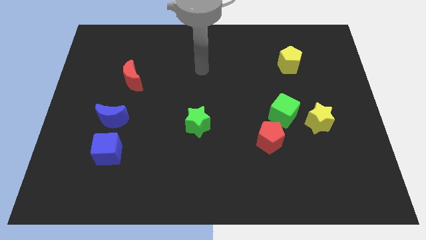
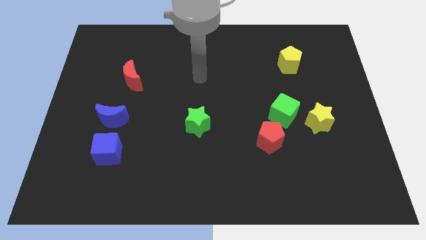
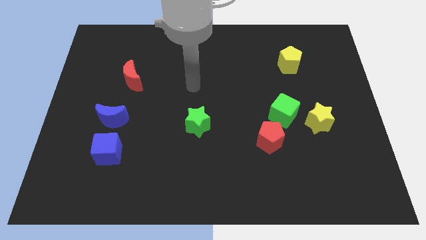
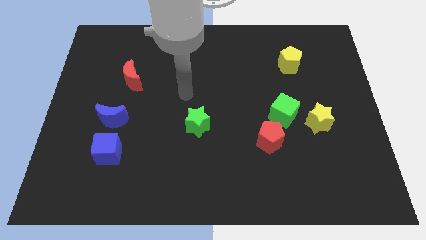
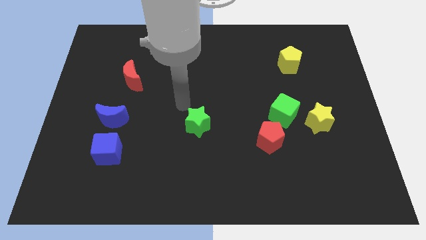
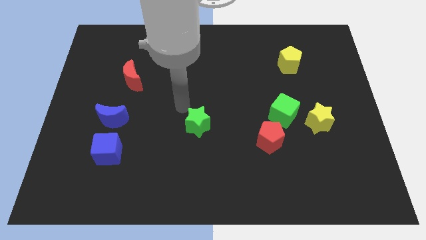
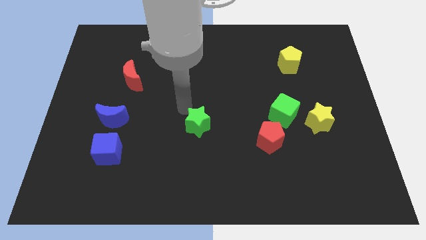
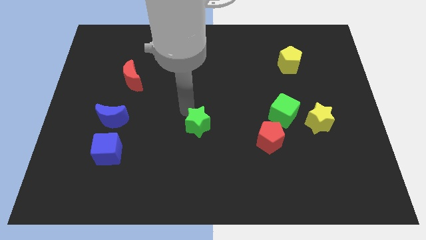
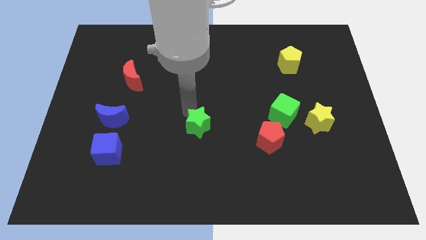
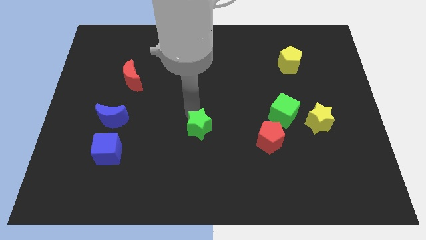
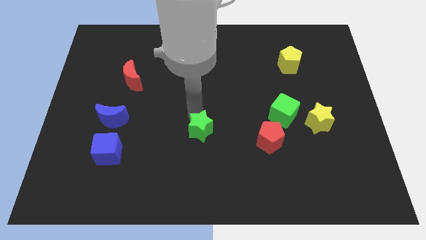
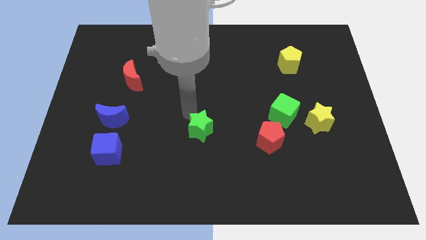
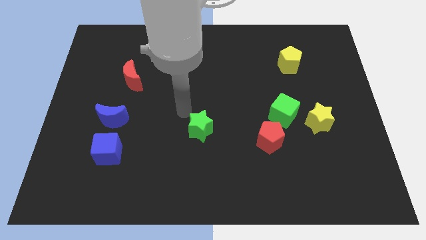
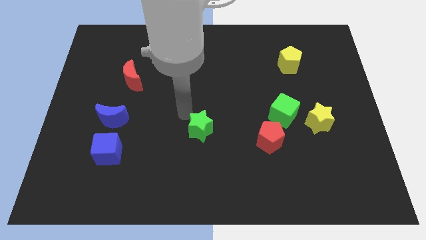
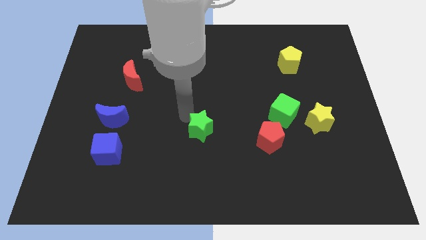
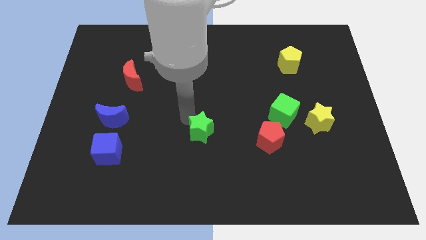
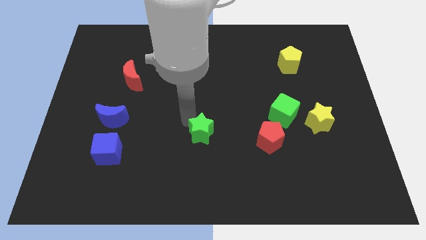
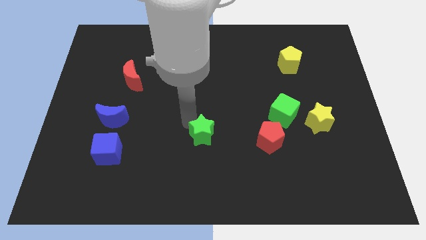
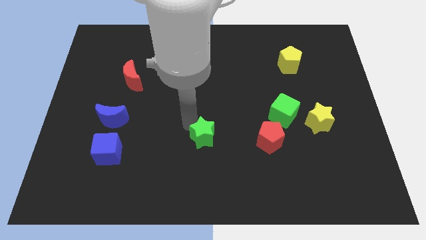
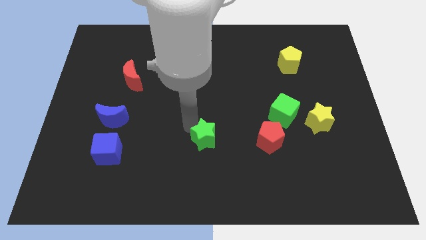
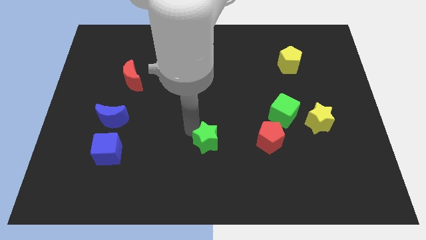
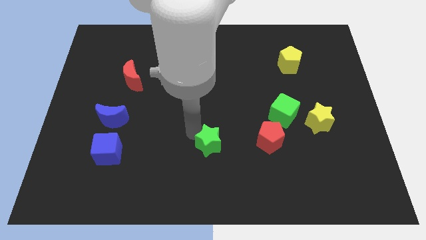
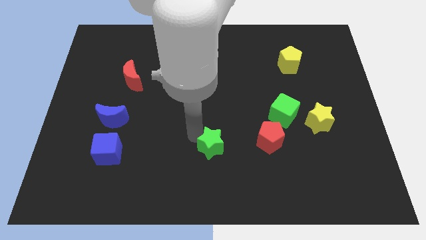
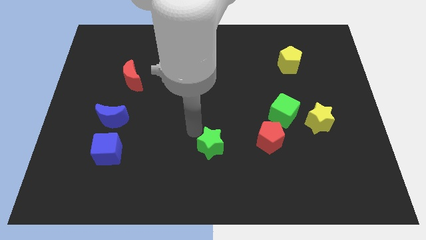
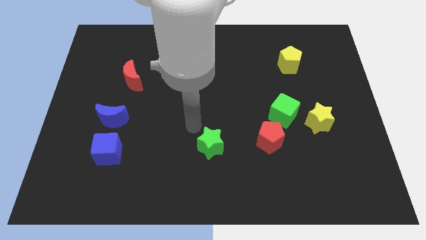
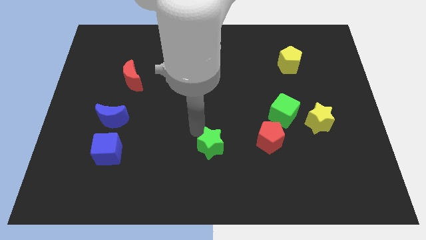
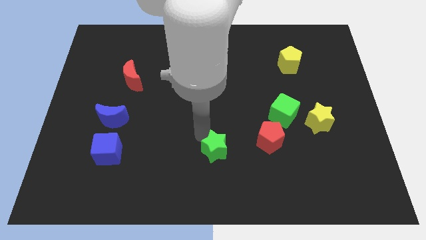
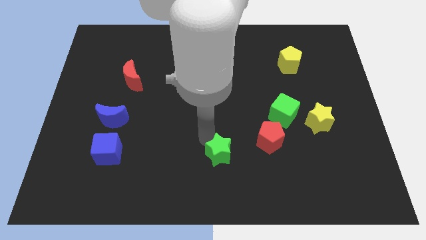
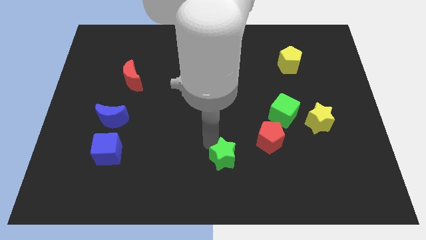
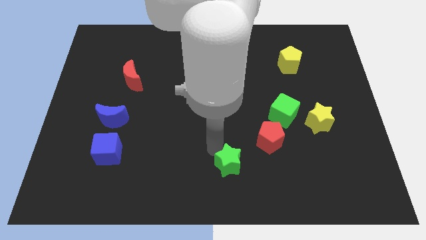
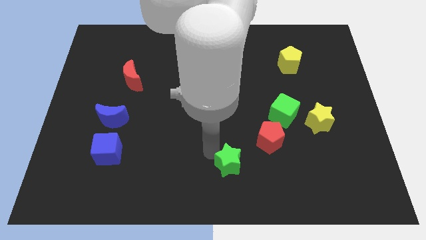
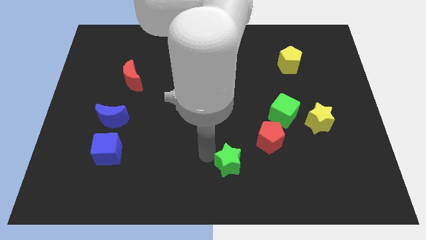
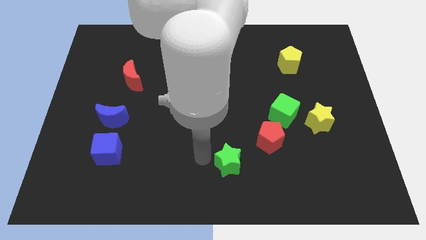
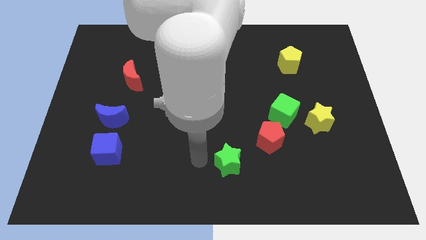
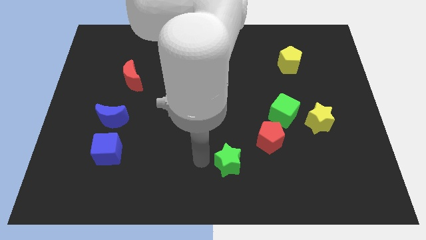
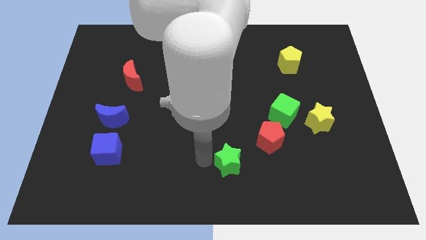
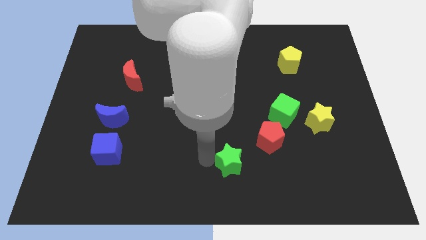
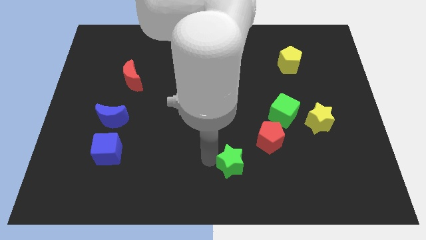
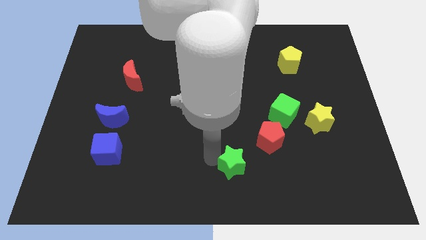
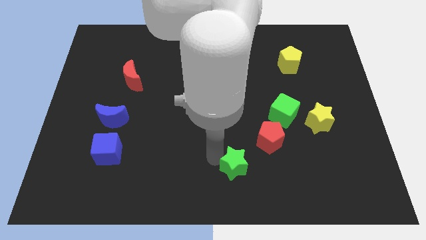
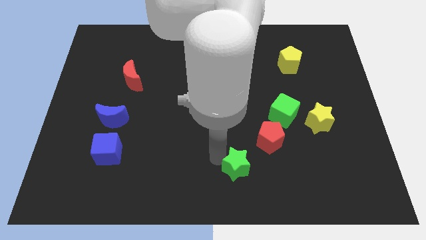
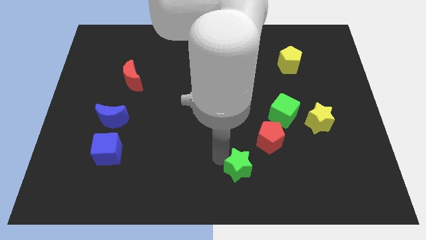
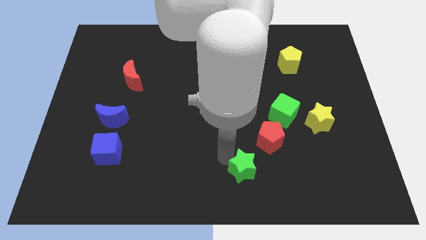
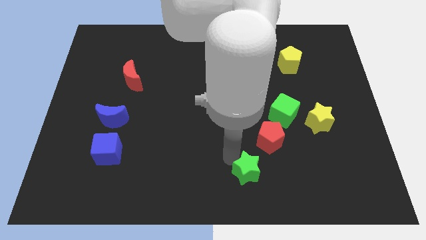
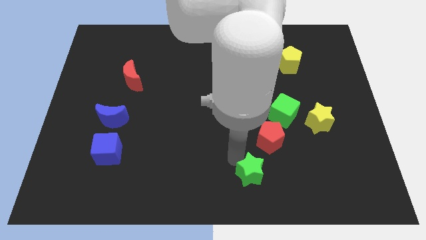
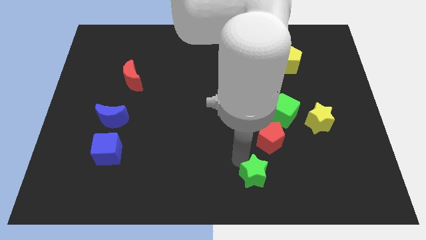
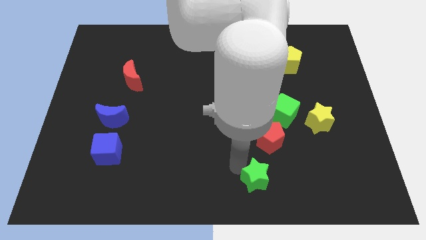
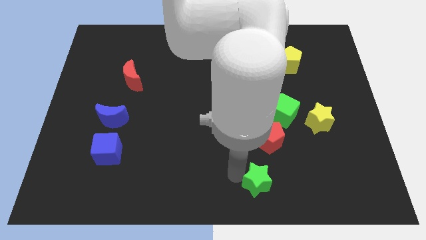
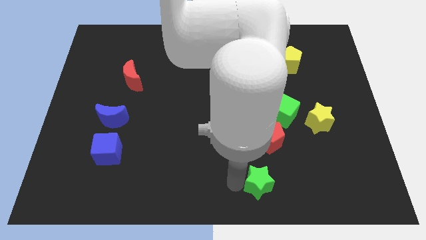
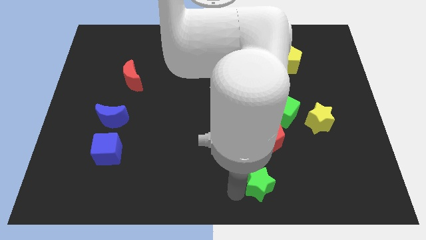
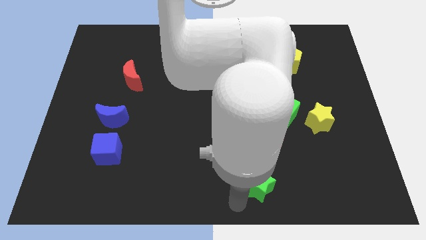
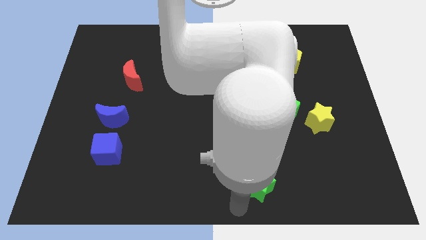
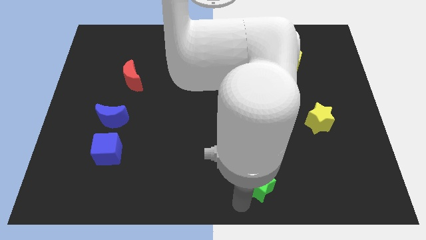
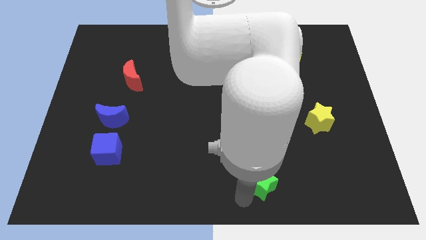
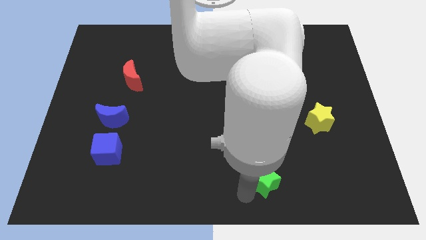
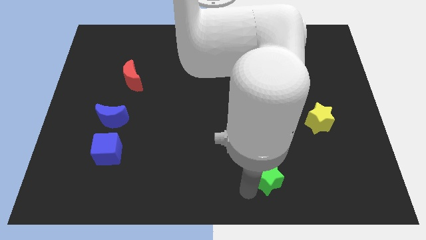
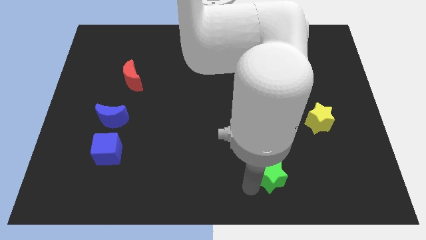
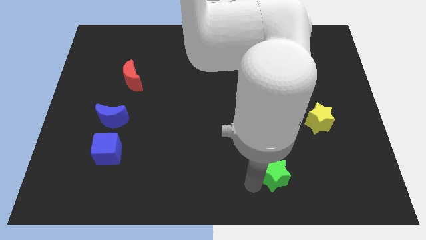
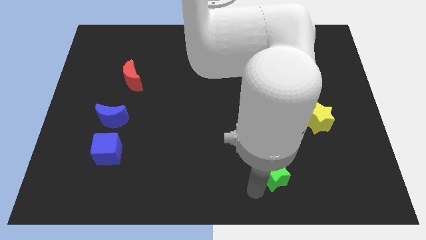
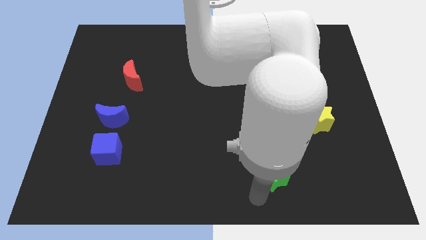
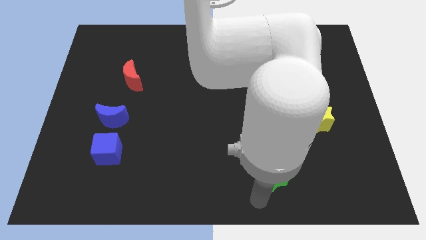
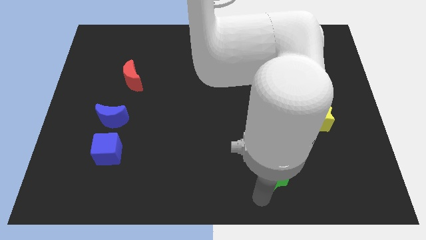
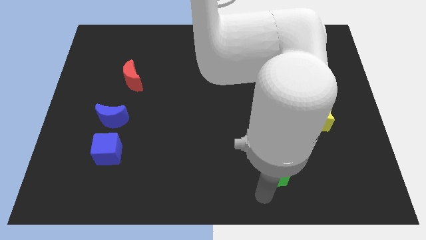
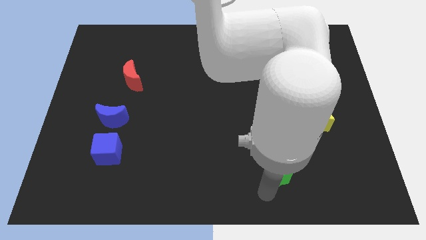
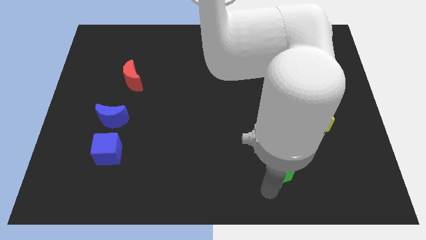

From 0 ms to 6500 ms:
push the green star to the bottom of the green cube

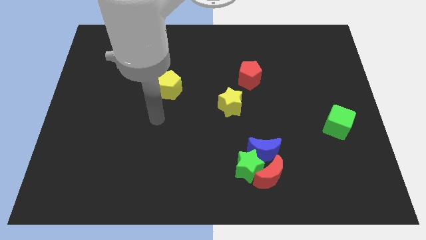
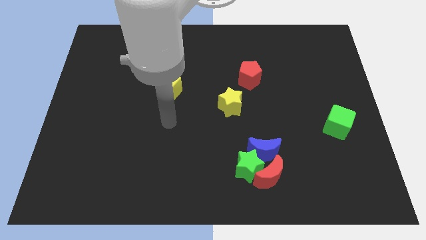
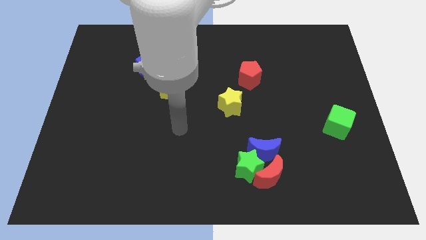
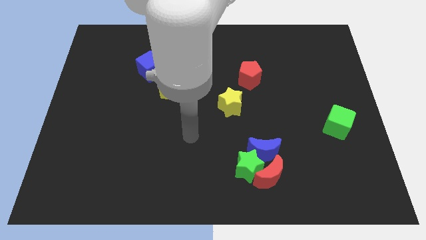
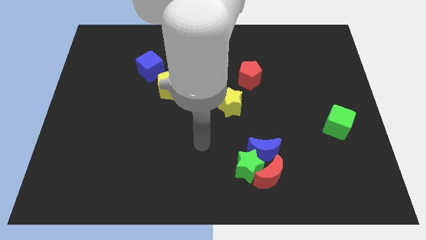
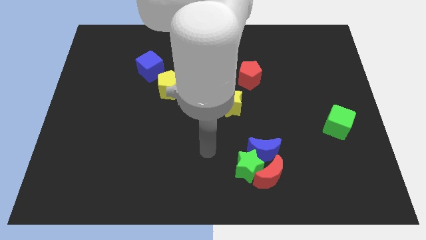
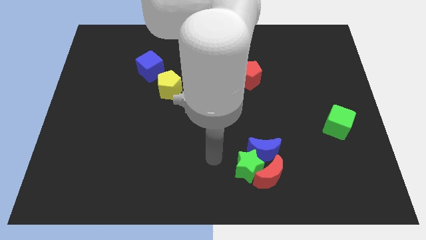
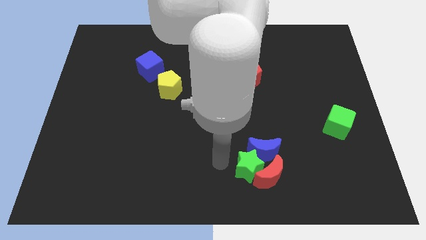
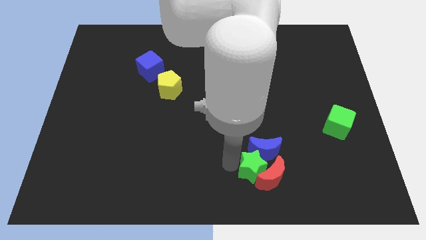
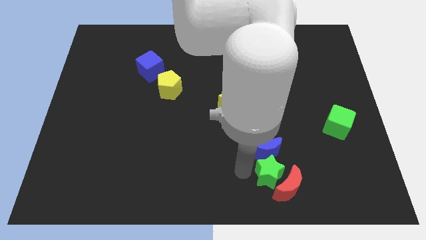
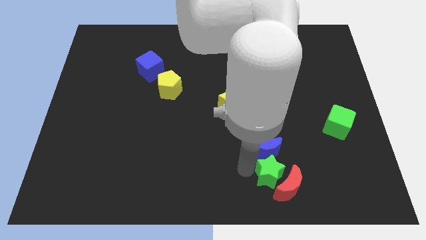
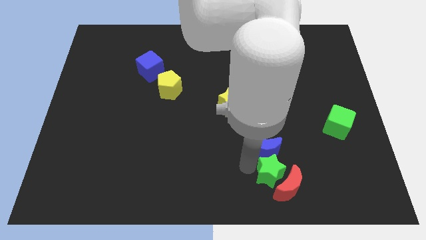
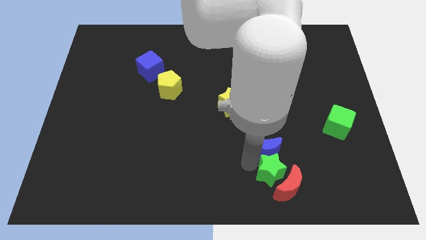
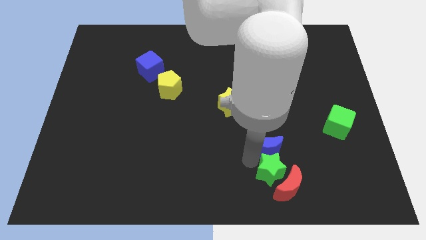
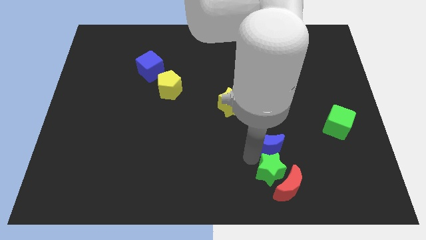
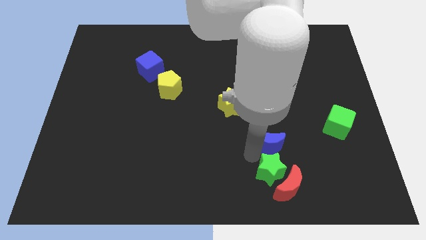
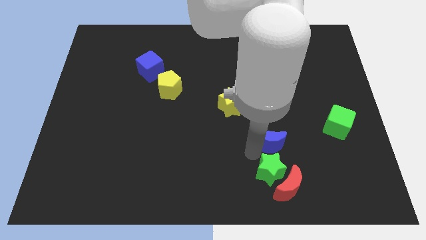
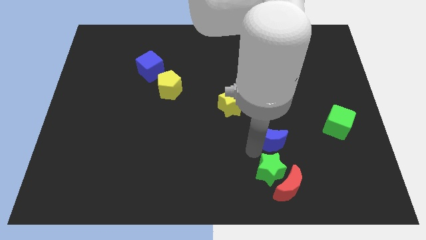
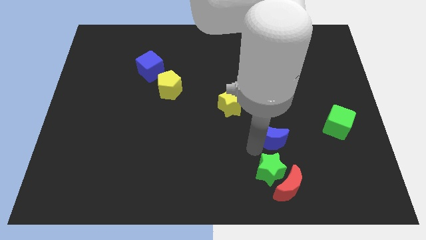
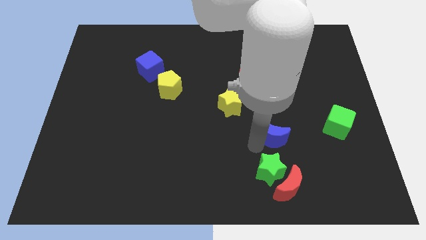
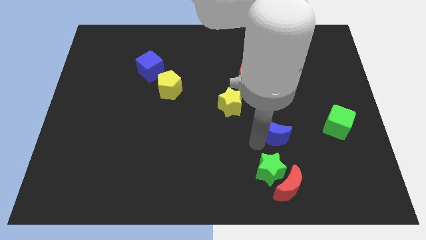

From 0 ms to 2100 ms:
push the blue moon to the left side of the green cube
